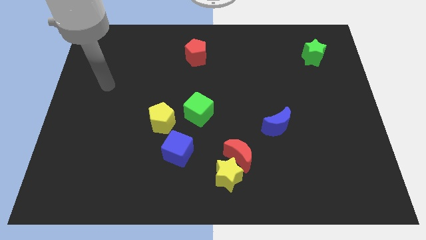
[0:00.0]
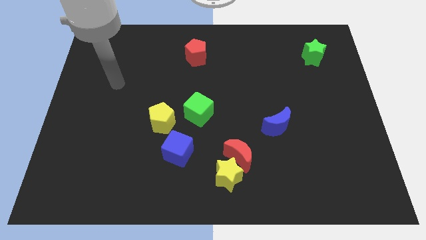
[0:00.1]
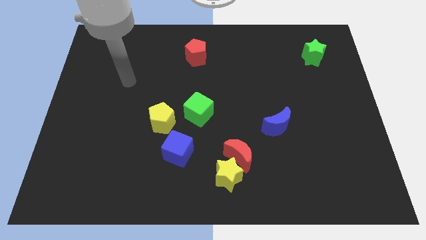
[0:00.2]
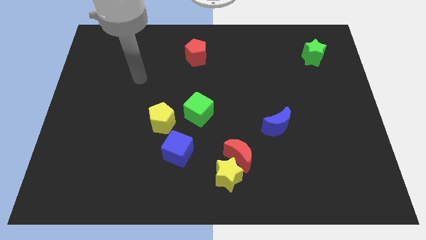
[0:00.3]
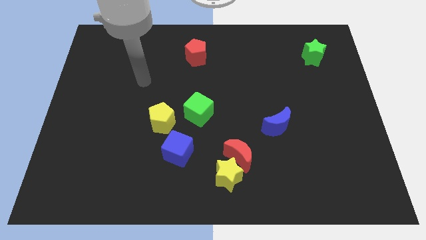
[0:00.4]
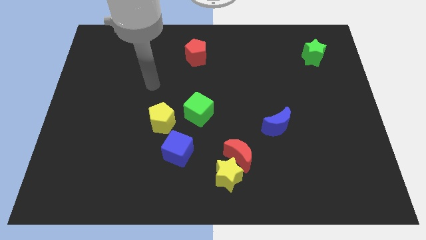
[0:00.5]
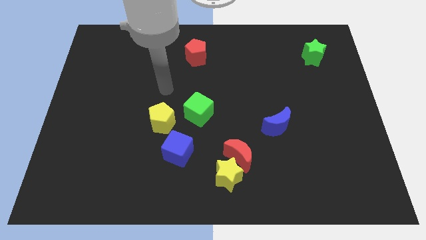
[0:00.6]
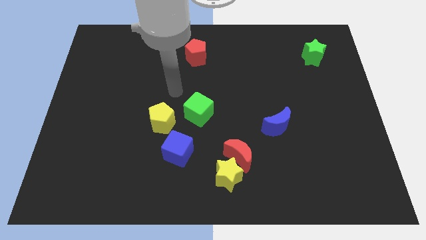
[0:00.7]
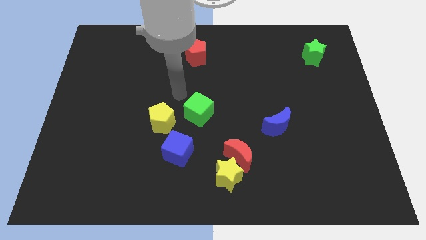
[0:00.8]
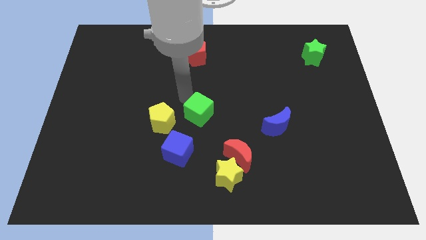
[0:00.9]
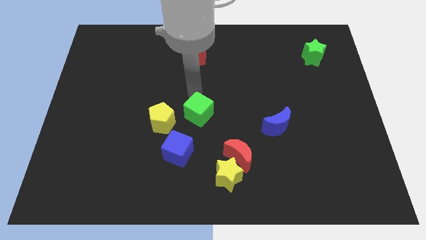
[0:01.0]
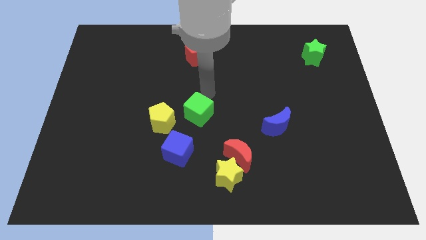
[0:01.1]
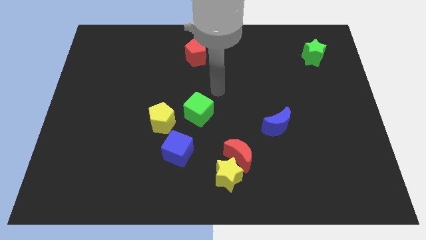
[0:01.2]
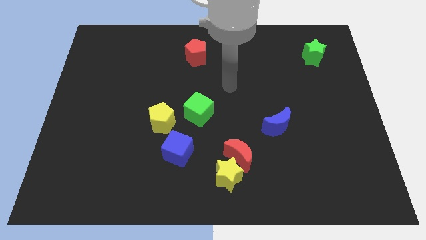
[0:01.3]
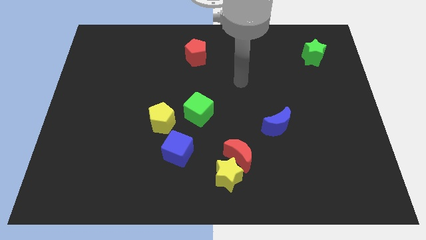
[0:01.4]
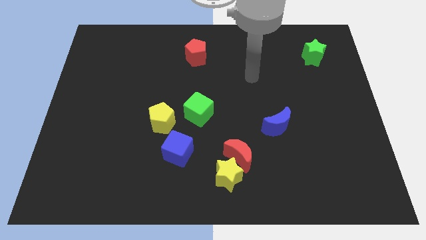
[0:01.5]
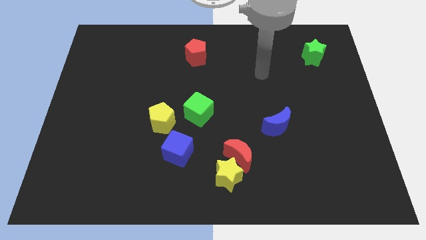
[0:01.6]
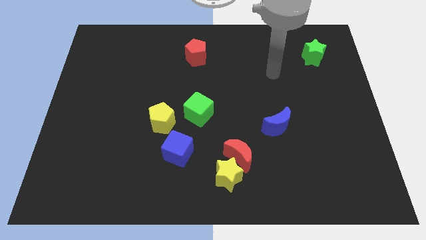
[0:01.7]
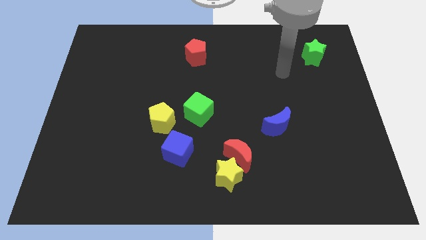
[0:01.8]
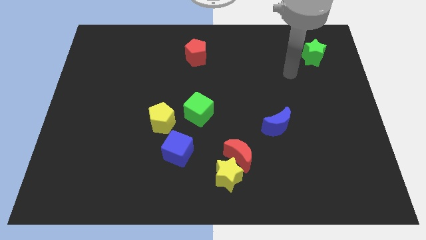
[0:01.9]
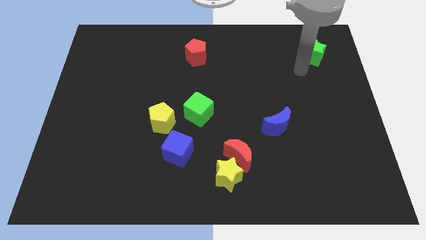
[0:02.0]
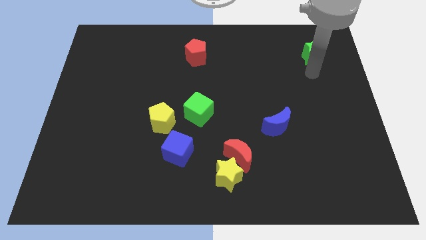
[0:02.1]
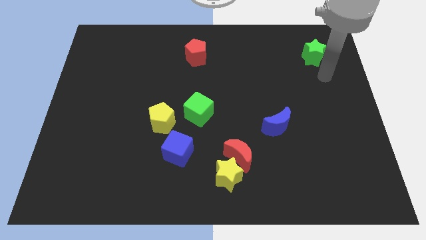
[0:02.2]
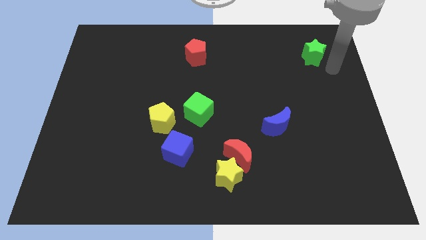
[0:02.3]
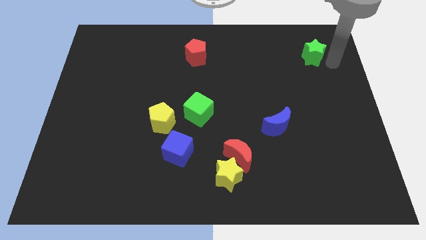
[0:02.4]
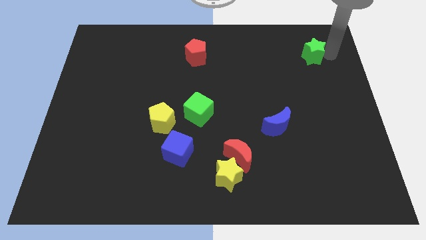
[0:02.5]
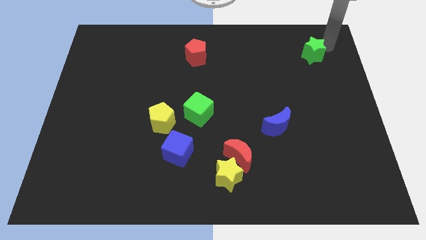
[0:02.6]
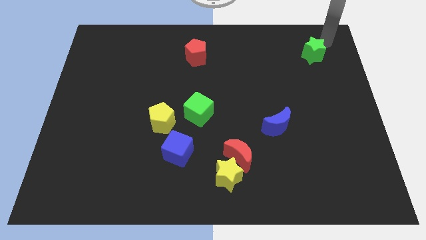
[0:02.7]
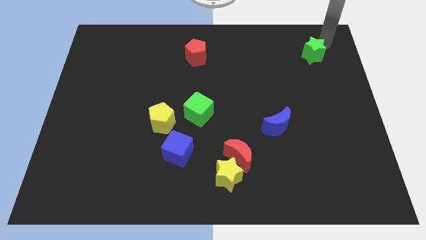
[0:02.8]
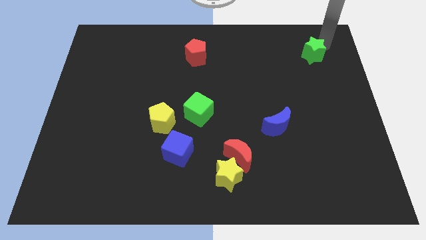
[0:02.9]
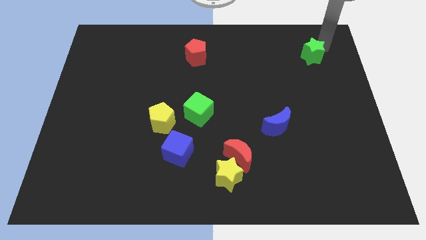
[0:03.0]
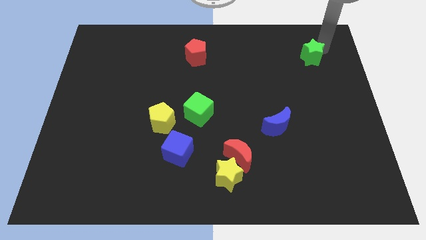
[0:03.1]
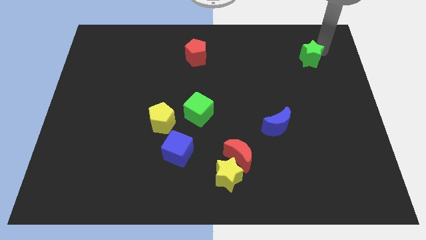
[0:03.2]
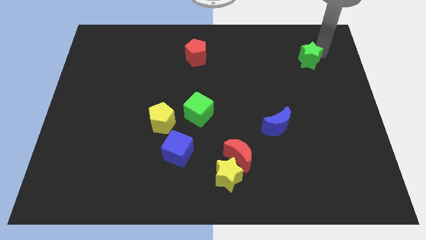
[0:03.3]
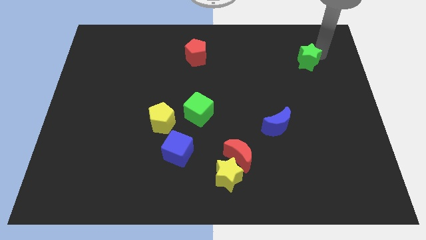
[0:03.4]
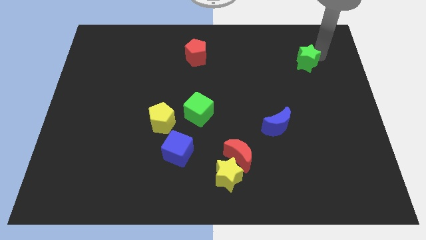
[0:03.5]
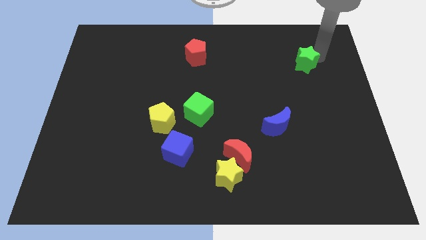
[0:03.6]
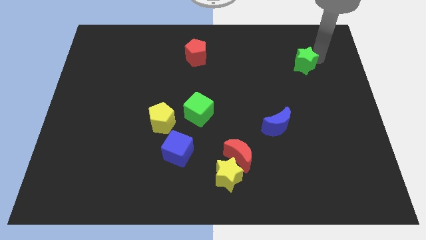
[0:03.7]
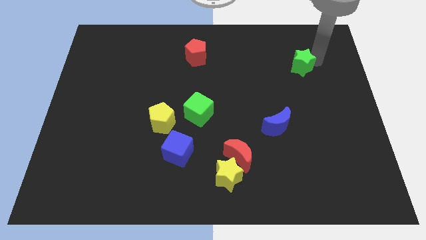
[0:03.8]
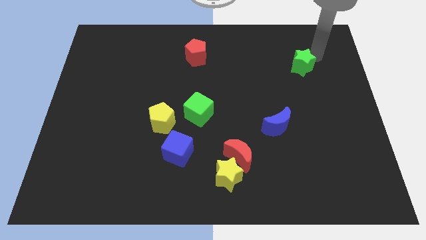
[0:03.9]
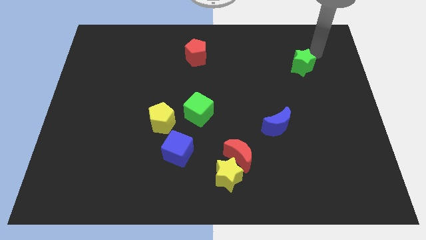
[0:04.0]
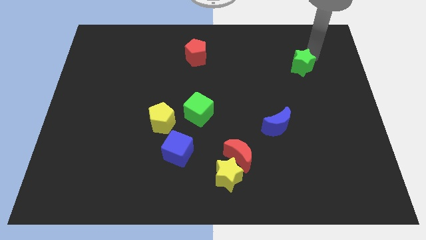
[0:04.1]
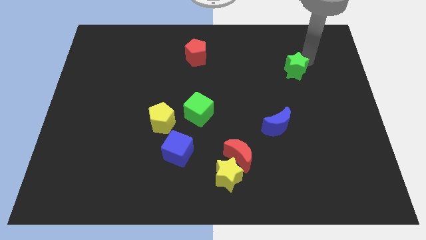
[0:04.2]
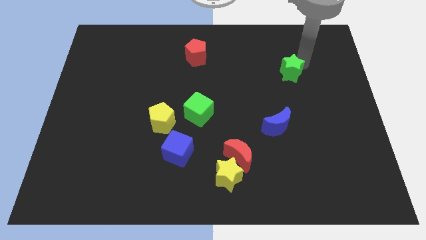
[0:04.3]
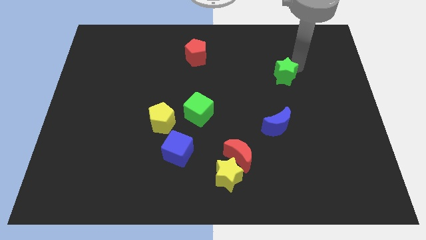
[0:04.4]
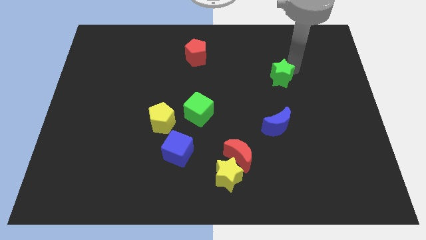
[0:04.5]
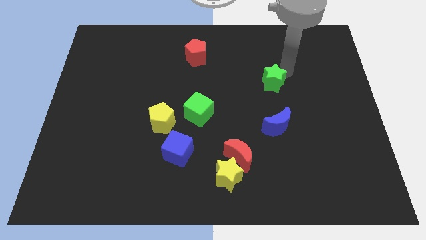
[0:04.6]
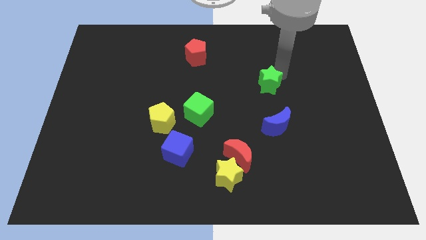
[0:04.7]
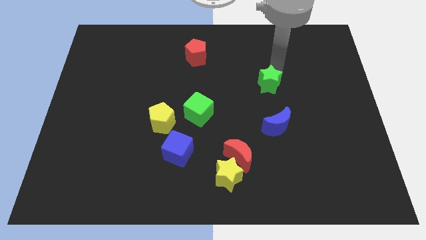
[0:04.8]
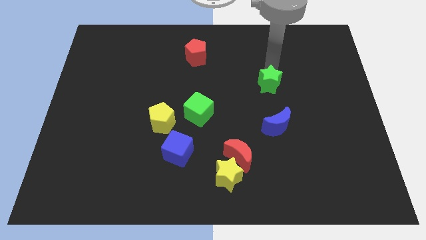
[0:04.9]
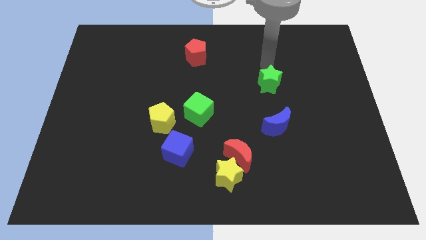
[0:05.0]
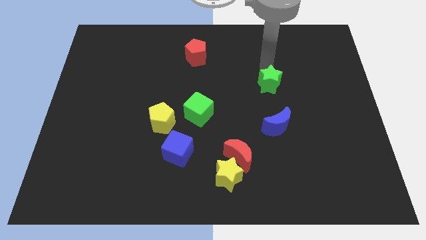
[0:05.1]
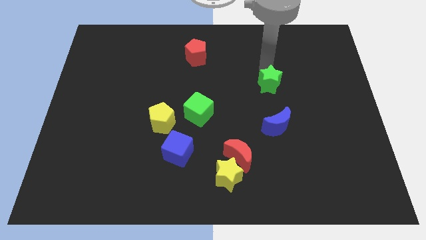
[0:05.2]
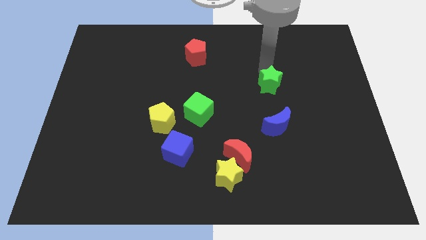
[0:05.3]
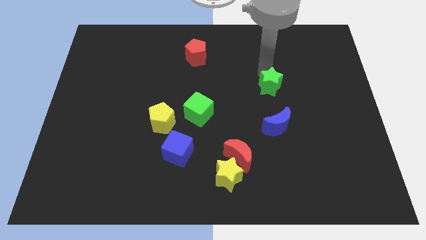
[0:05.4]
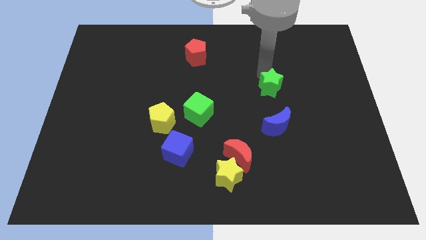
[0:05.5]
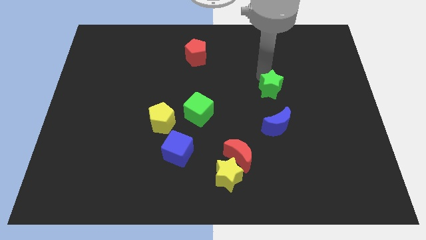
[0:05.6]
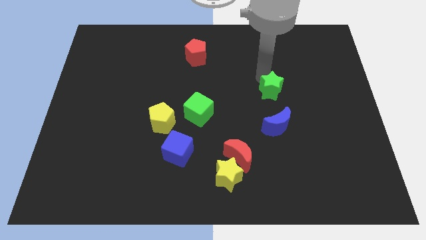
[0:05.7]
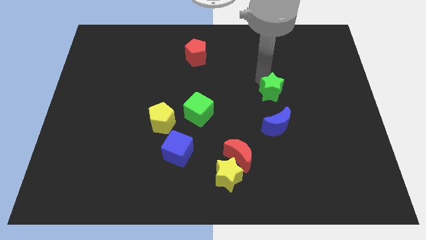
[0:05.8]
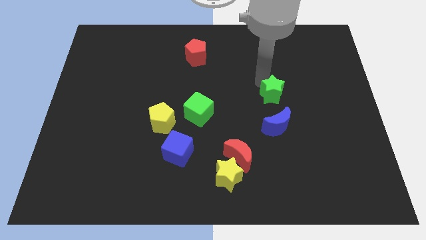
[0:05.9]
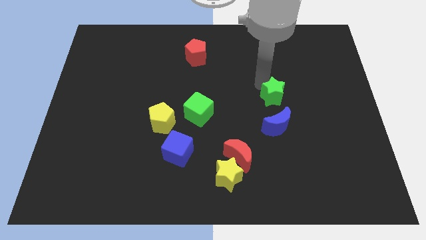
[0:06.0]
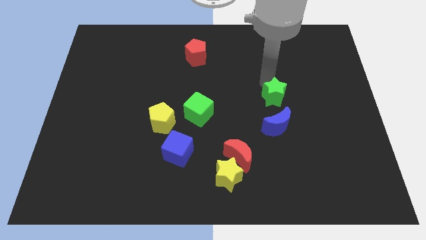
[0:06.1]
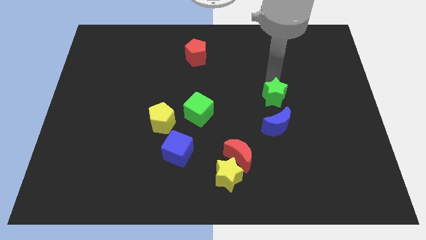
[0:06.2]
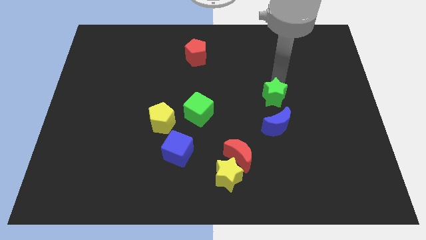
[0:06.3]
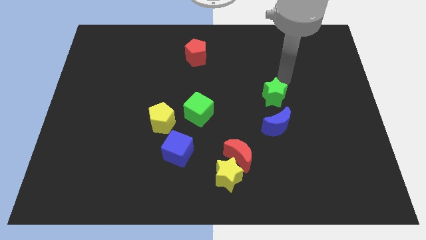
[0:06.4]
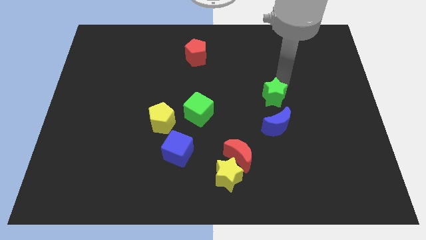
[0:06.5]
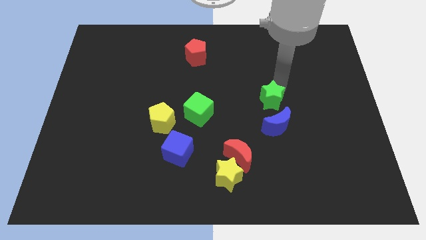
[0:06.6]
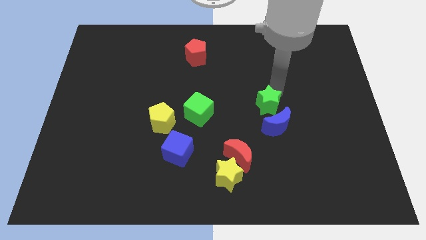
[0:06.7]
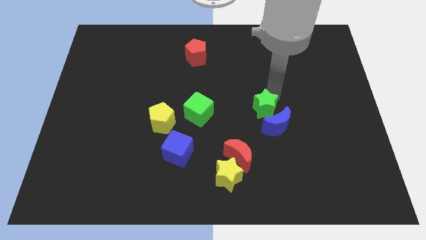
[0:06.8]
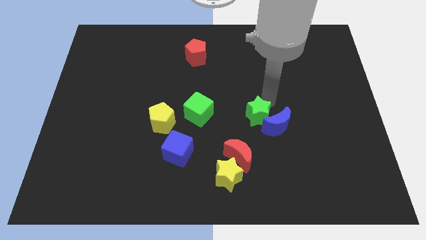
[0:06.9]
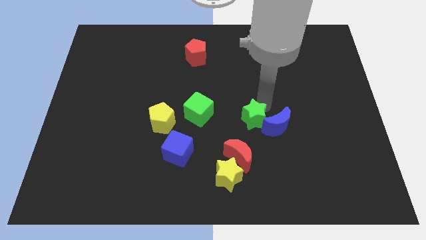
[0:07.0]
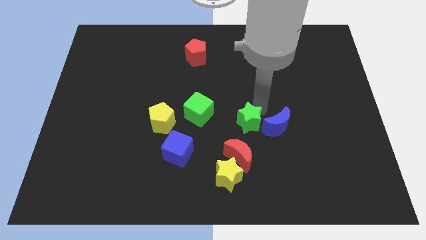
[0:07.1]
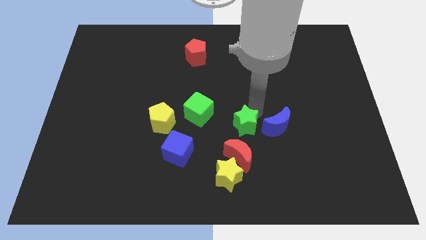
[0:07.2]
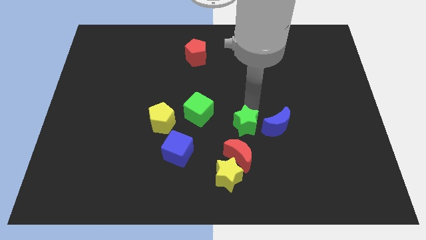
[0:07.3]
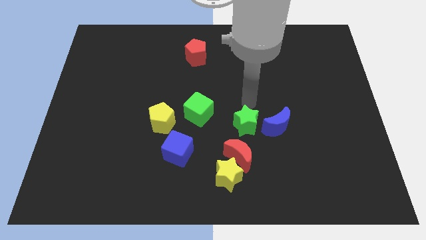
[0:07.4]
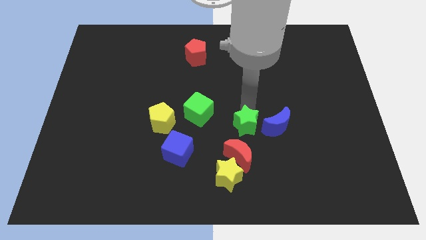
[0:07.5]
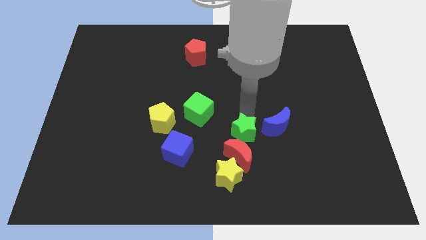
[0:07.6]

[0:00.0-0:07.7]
slide the green star next to the red moon
